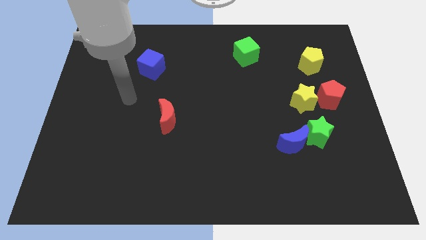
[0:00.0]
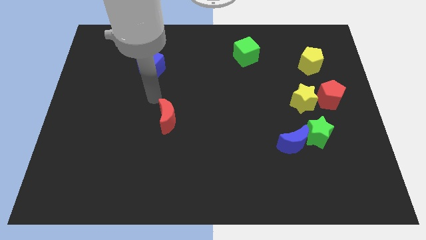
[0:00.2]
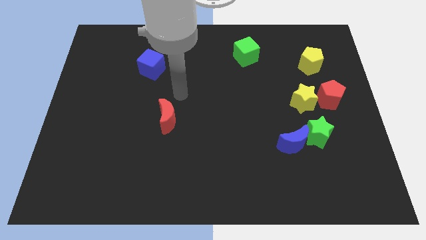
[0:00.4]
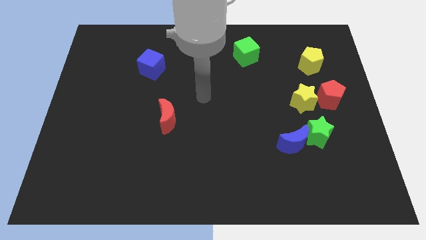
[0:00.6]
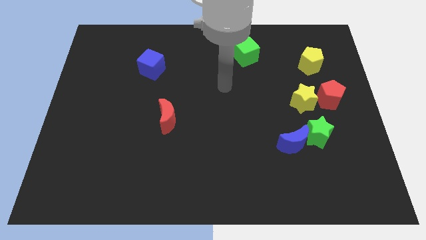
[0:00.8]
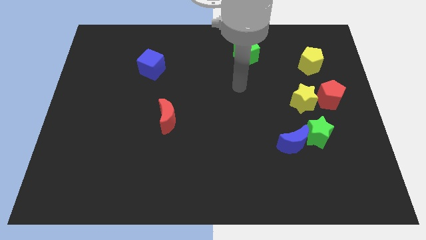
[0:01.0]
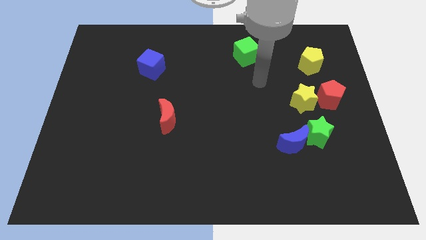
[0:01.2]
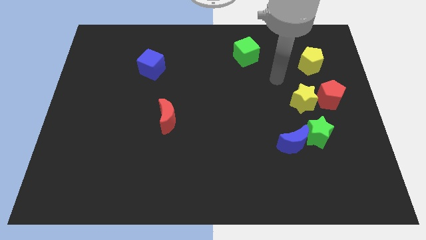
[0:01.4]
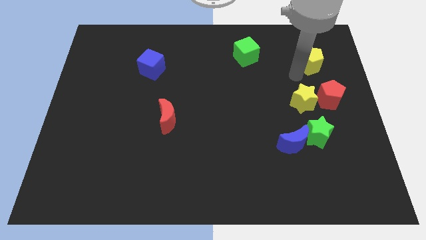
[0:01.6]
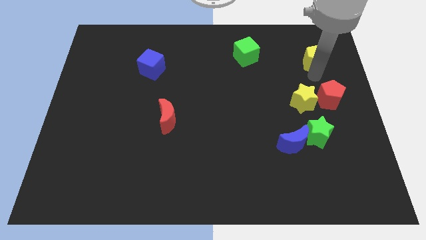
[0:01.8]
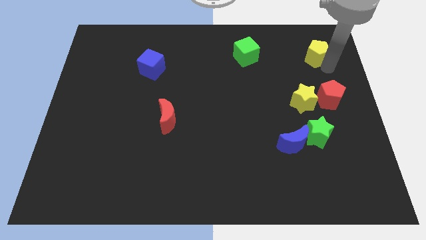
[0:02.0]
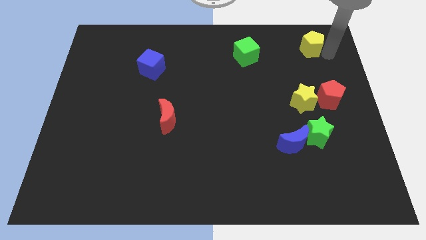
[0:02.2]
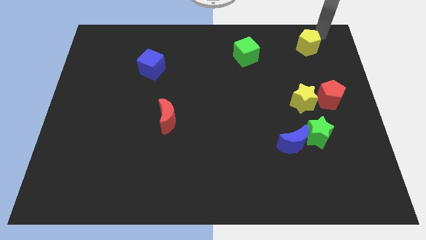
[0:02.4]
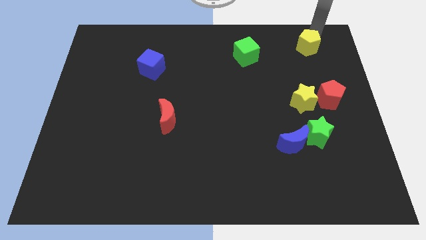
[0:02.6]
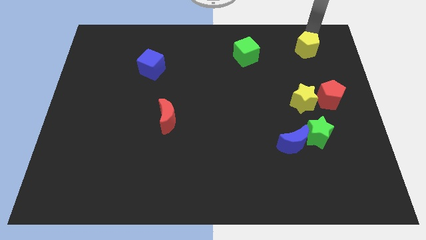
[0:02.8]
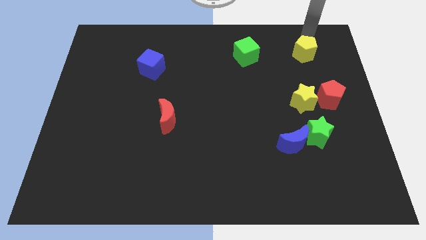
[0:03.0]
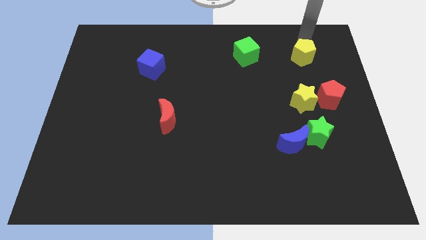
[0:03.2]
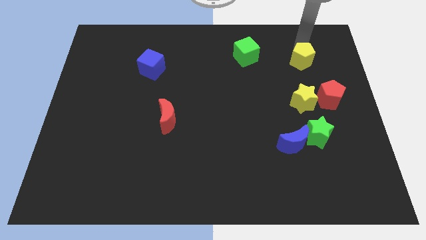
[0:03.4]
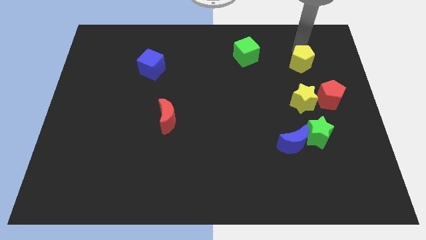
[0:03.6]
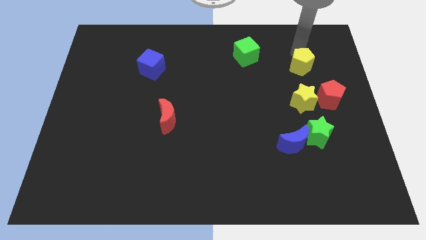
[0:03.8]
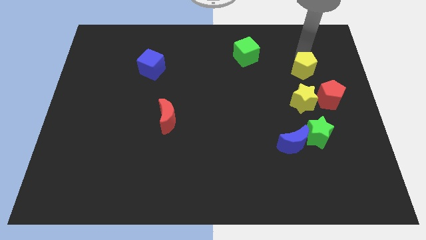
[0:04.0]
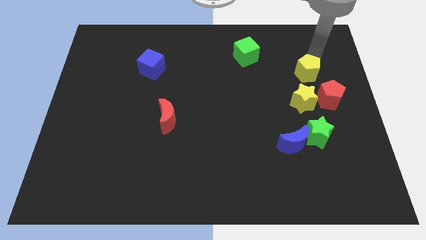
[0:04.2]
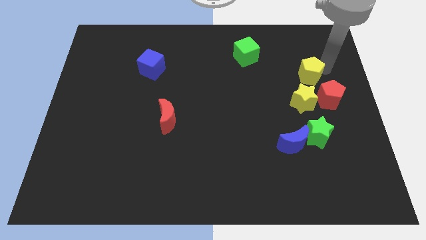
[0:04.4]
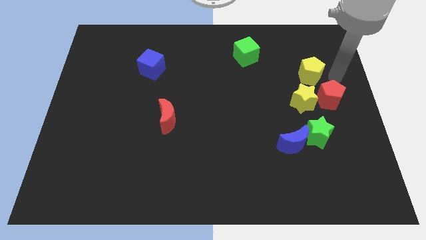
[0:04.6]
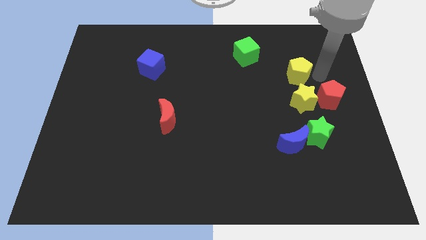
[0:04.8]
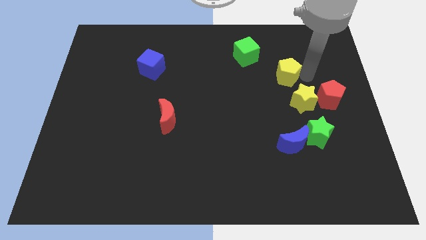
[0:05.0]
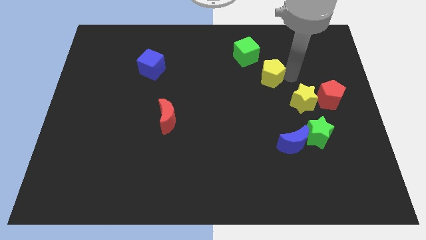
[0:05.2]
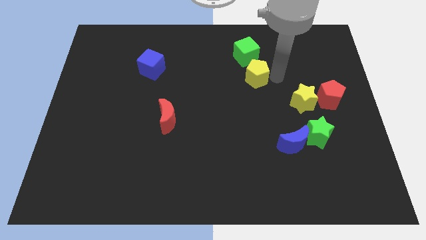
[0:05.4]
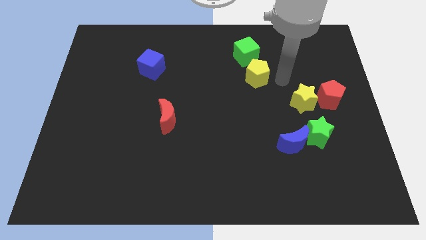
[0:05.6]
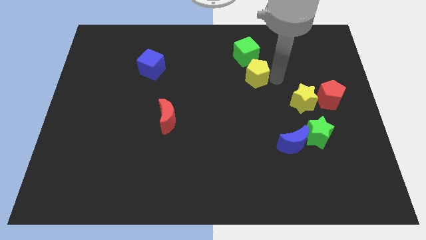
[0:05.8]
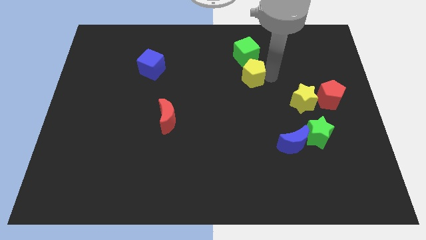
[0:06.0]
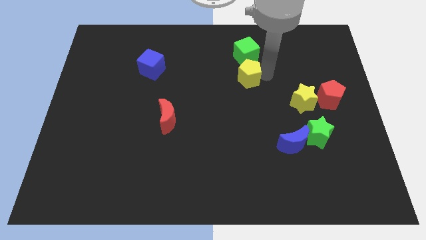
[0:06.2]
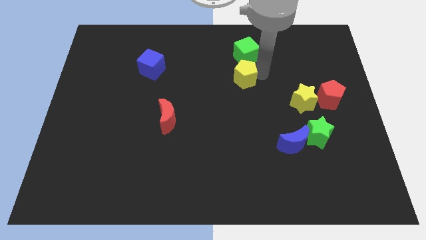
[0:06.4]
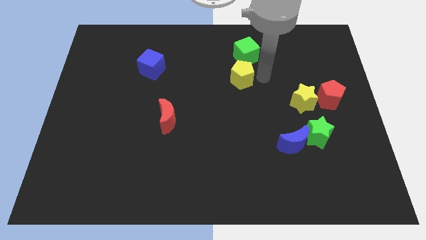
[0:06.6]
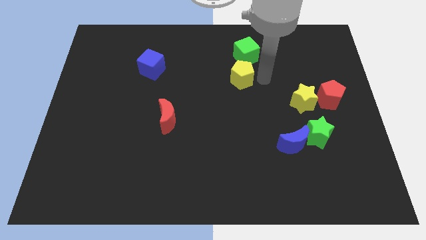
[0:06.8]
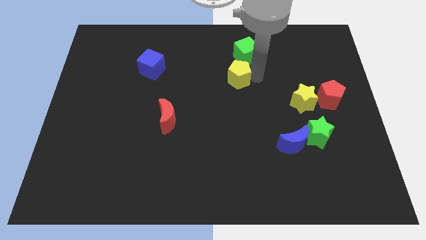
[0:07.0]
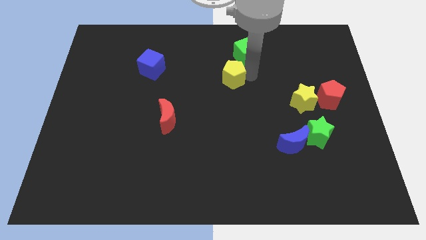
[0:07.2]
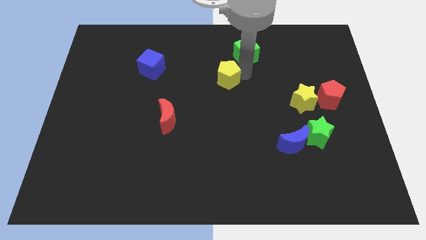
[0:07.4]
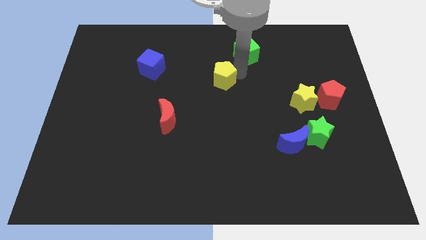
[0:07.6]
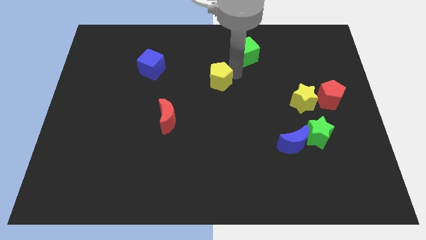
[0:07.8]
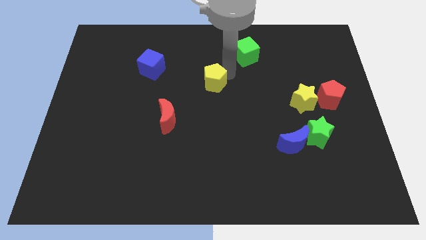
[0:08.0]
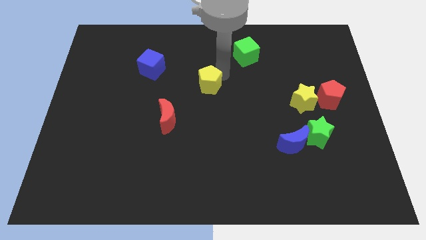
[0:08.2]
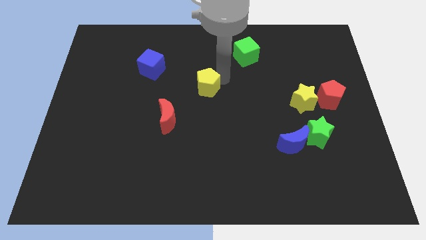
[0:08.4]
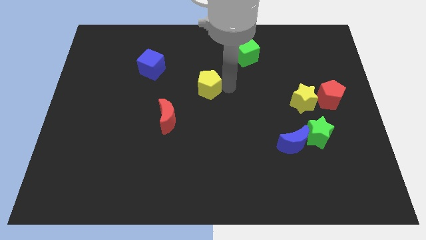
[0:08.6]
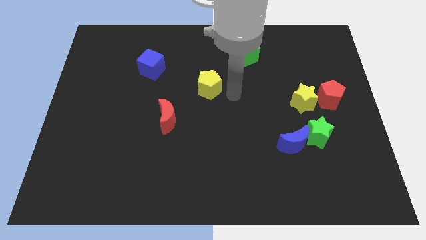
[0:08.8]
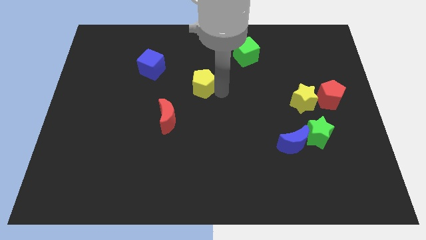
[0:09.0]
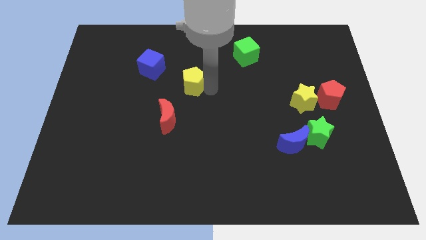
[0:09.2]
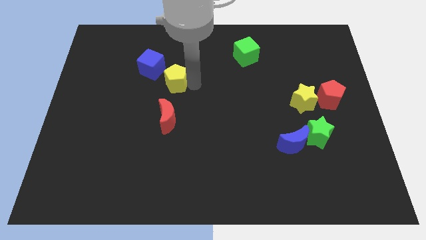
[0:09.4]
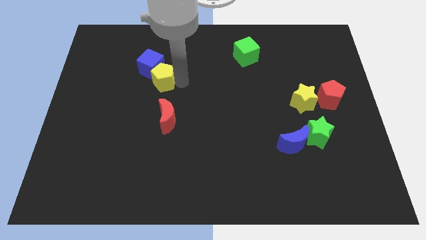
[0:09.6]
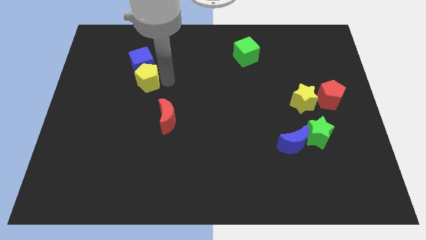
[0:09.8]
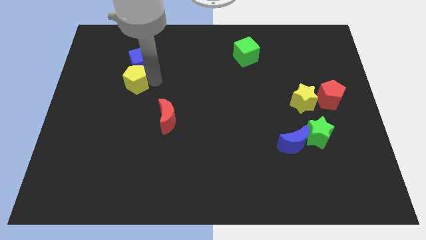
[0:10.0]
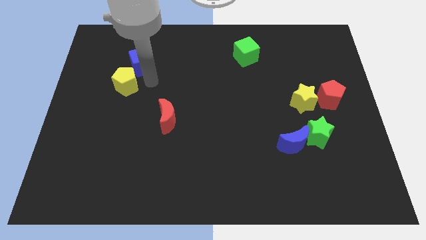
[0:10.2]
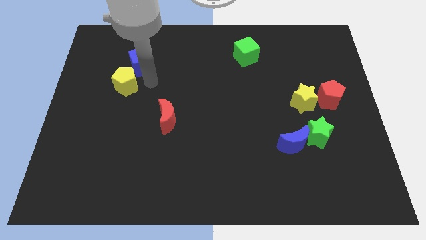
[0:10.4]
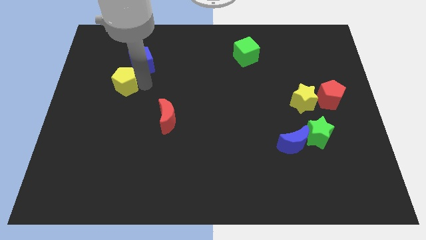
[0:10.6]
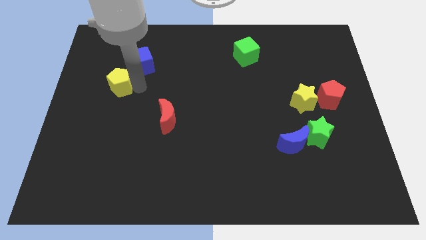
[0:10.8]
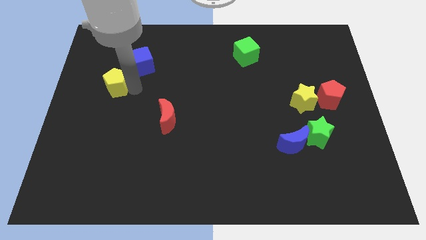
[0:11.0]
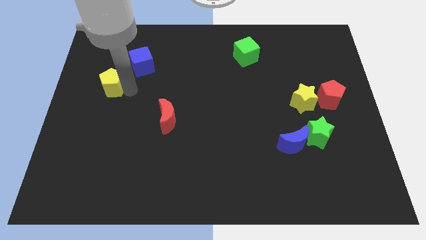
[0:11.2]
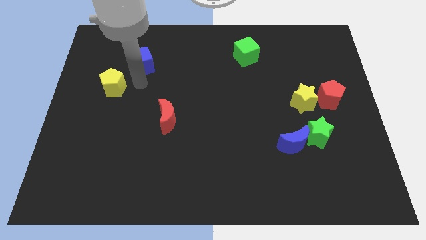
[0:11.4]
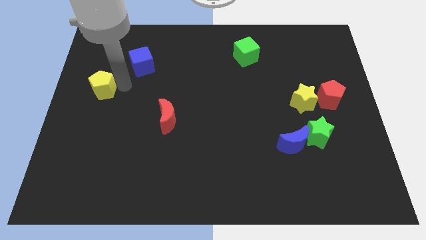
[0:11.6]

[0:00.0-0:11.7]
slide the yellow pentagon to the left side
